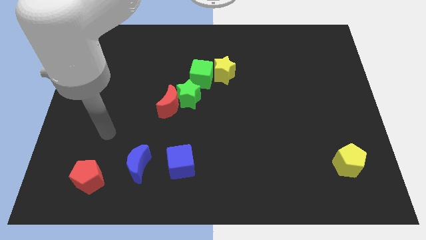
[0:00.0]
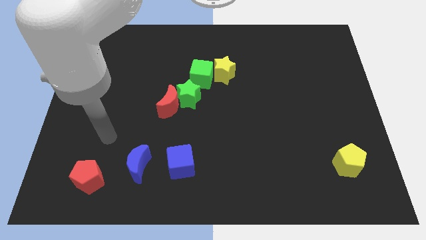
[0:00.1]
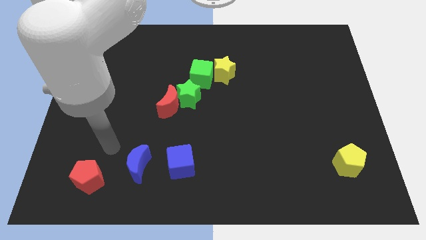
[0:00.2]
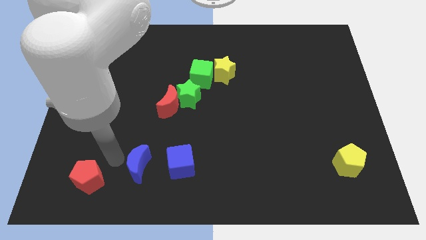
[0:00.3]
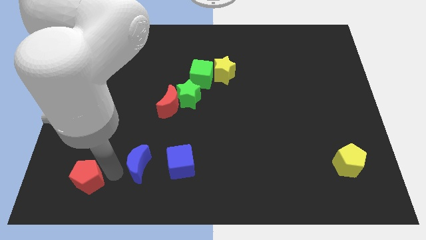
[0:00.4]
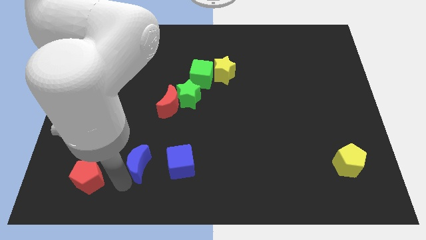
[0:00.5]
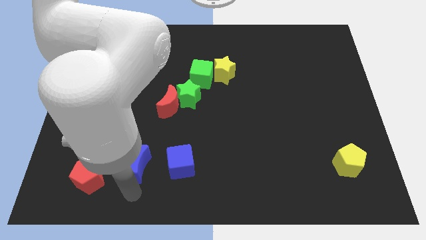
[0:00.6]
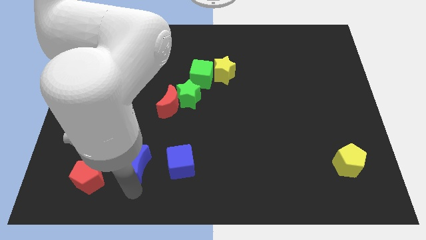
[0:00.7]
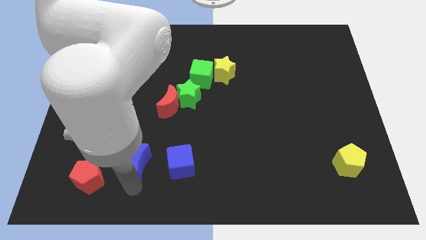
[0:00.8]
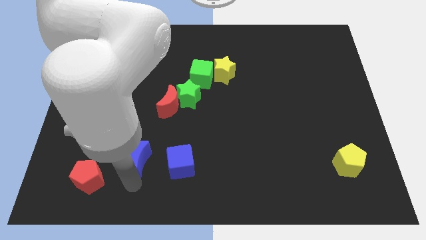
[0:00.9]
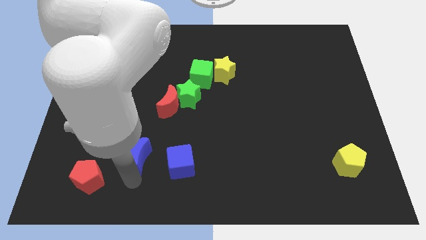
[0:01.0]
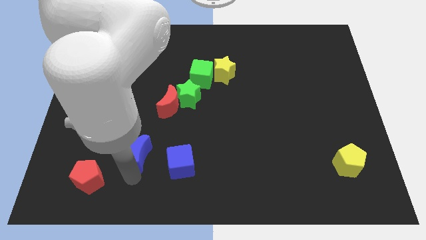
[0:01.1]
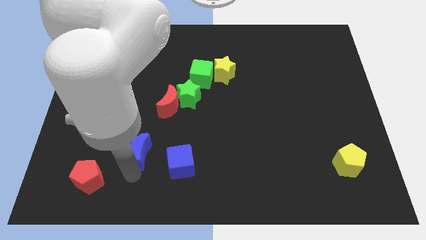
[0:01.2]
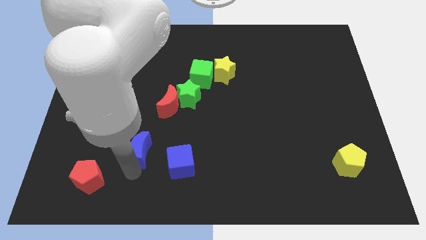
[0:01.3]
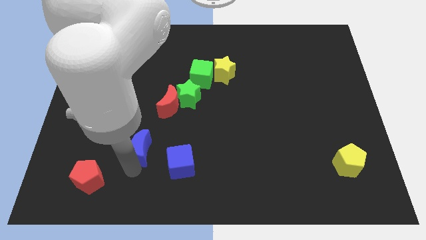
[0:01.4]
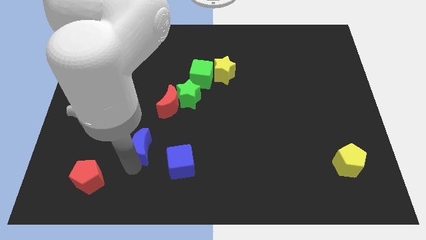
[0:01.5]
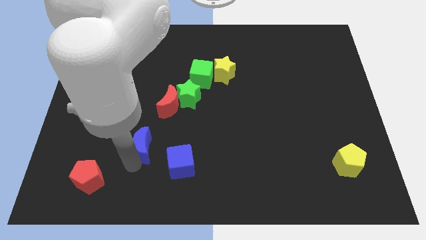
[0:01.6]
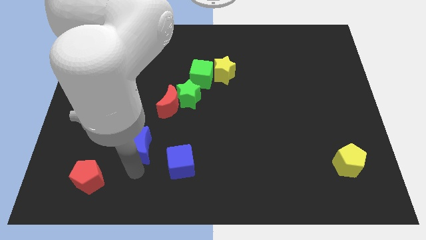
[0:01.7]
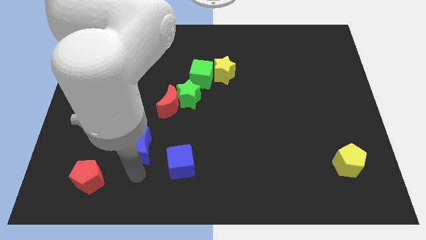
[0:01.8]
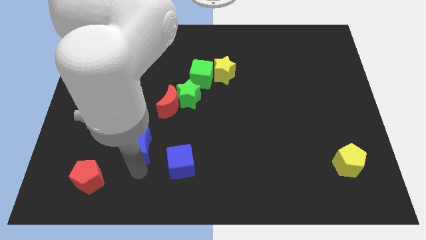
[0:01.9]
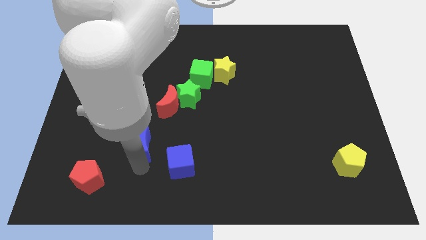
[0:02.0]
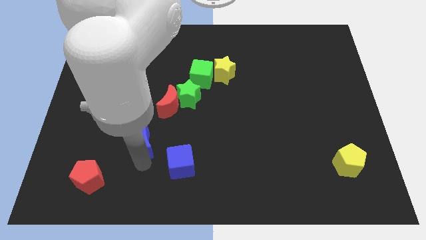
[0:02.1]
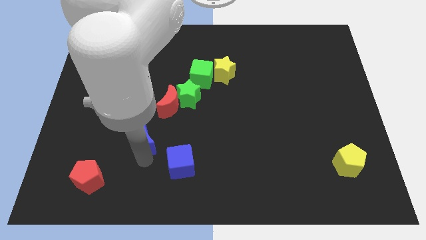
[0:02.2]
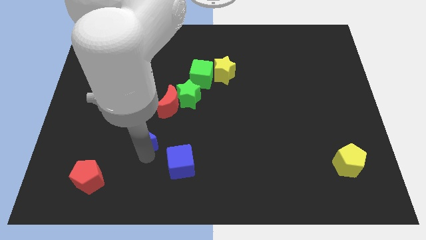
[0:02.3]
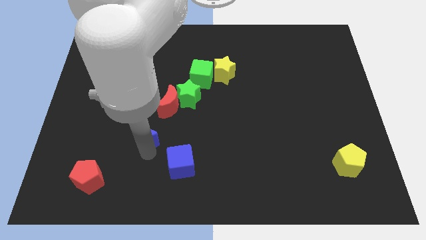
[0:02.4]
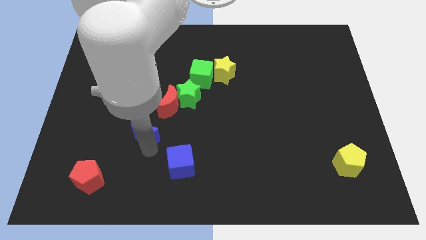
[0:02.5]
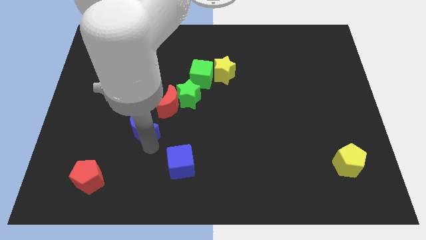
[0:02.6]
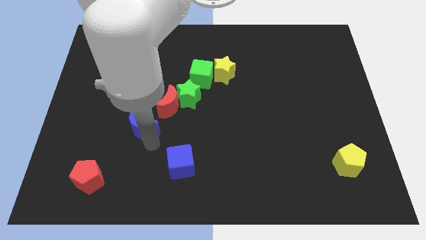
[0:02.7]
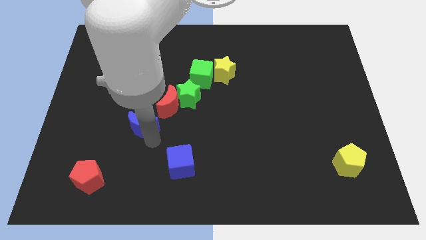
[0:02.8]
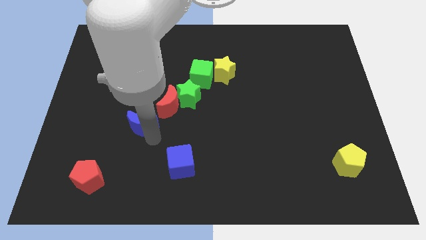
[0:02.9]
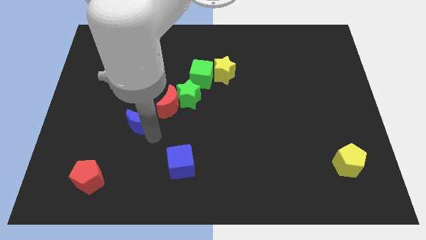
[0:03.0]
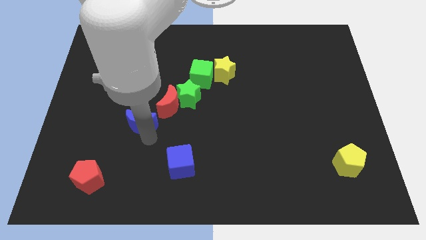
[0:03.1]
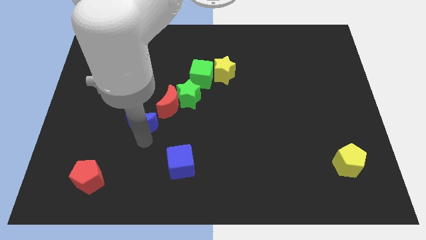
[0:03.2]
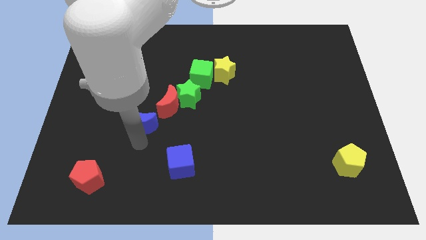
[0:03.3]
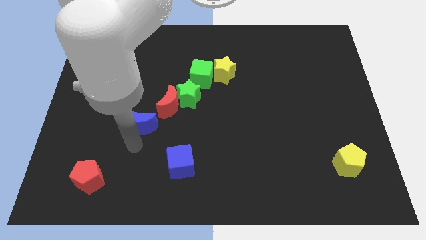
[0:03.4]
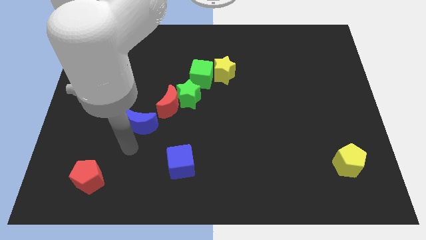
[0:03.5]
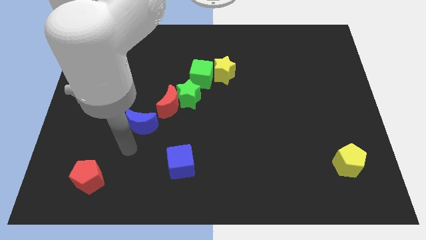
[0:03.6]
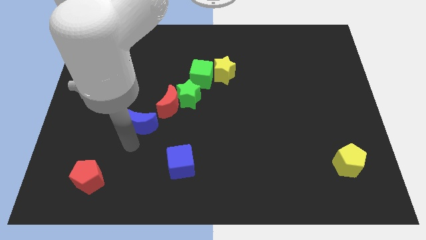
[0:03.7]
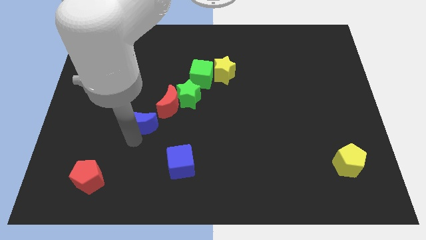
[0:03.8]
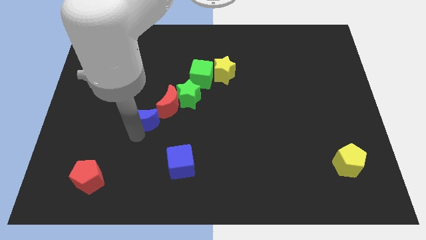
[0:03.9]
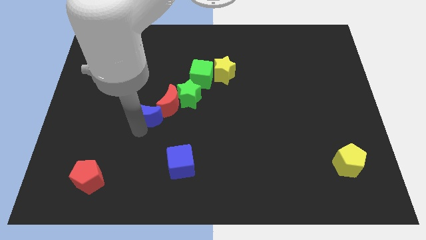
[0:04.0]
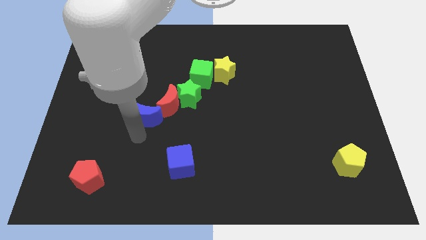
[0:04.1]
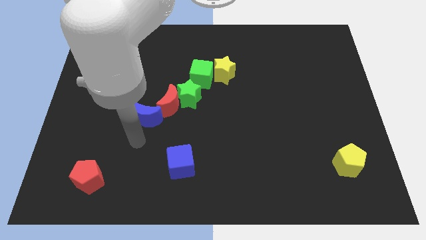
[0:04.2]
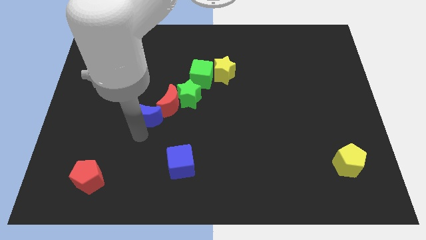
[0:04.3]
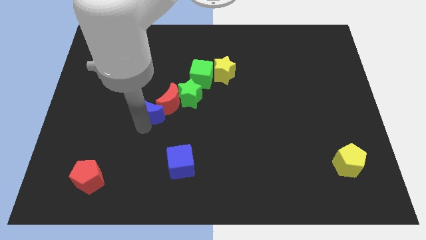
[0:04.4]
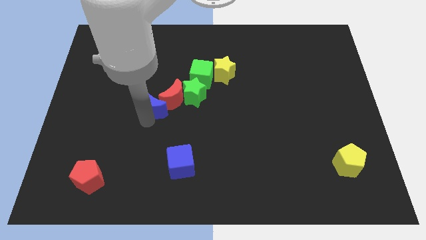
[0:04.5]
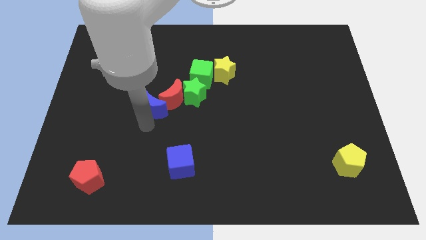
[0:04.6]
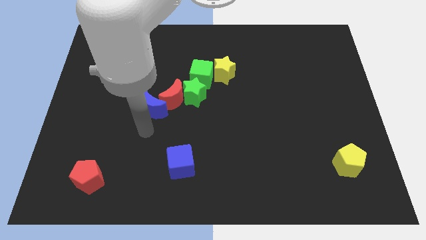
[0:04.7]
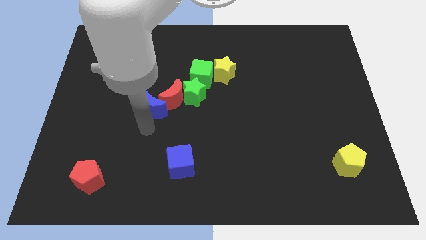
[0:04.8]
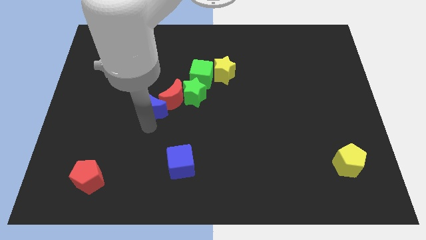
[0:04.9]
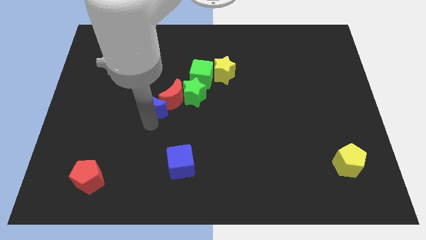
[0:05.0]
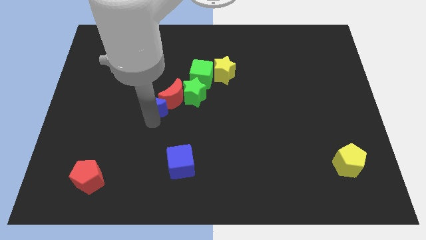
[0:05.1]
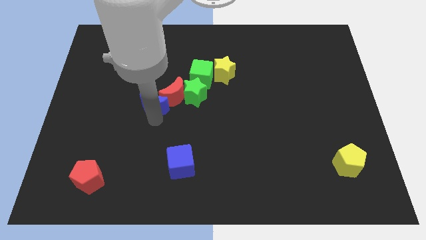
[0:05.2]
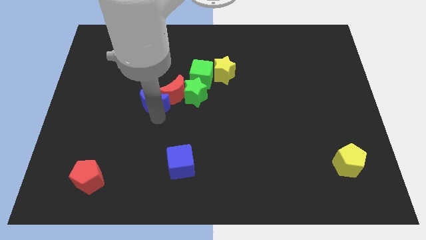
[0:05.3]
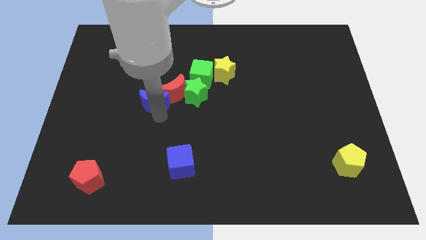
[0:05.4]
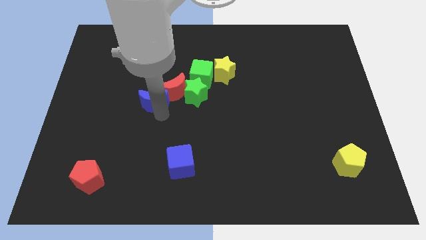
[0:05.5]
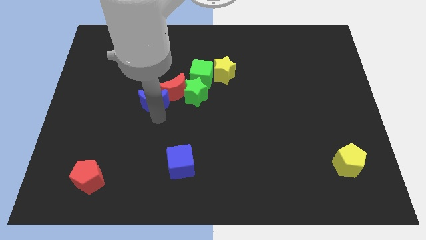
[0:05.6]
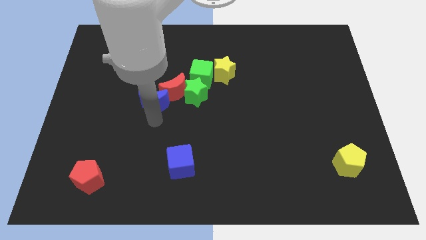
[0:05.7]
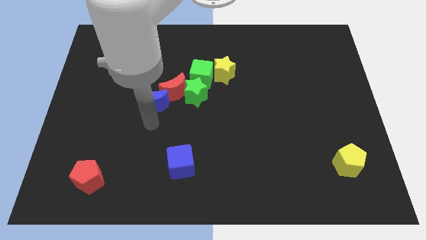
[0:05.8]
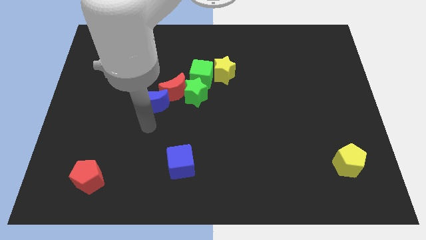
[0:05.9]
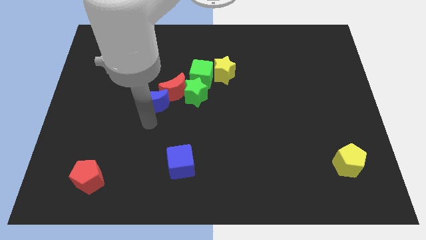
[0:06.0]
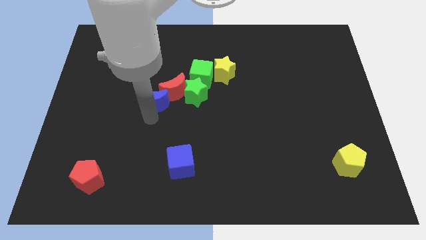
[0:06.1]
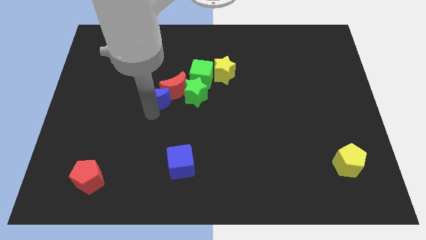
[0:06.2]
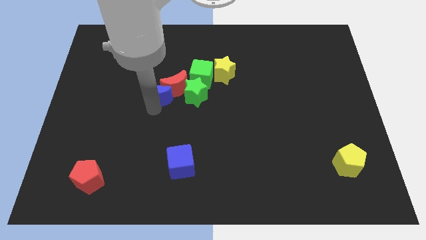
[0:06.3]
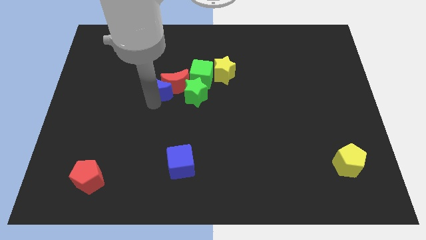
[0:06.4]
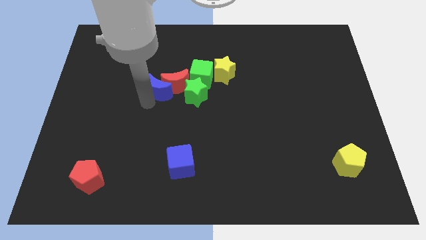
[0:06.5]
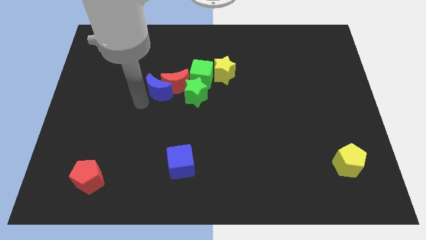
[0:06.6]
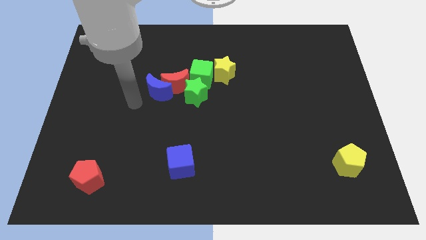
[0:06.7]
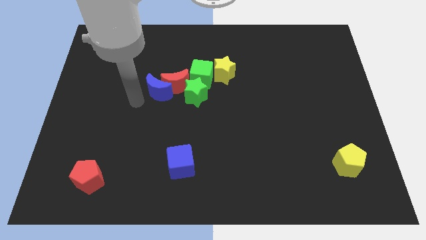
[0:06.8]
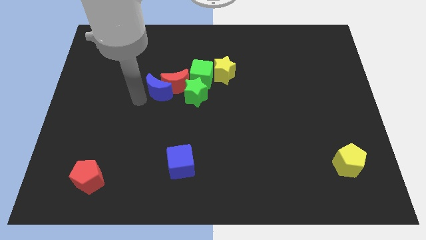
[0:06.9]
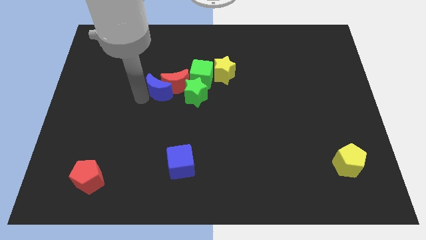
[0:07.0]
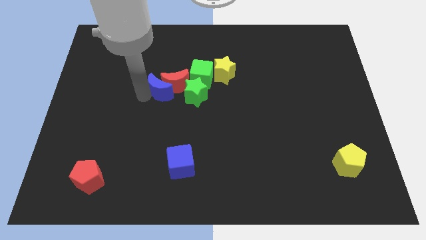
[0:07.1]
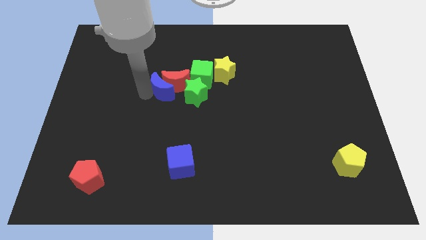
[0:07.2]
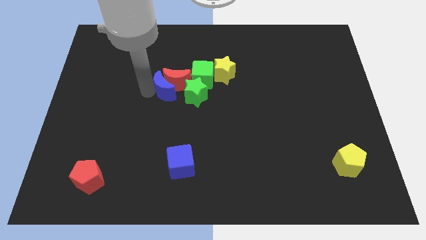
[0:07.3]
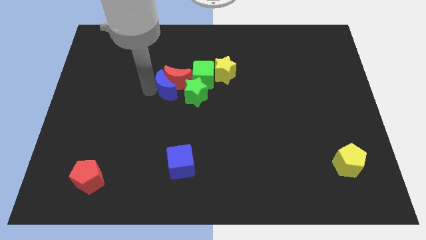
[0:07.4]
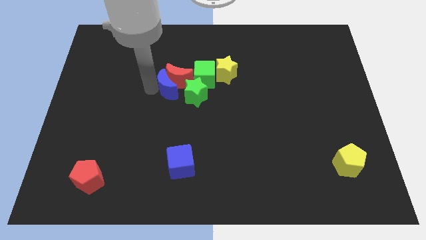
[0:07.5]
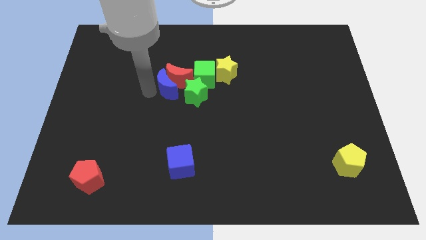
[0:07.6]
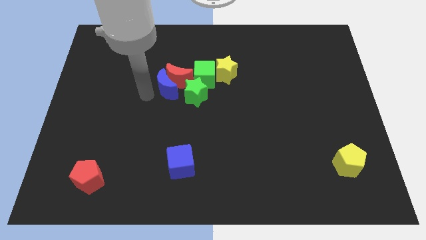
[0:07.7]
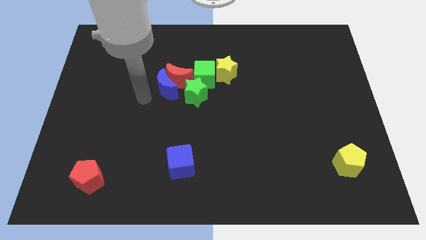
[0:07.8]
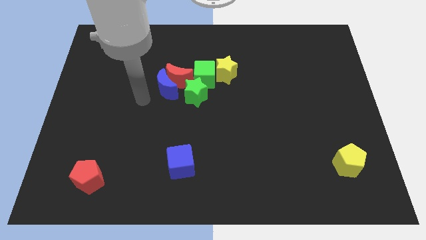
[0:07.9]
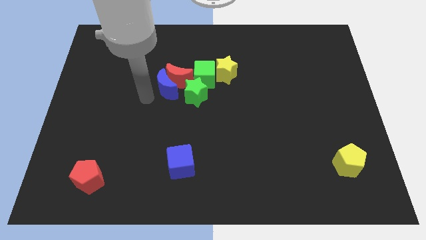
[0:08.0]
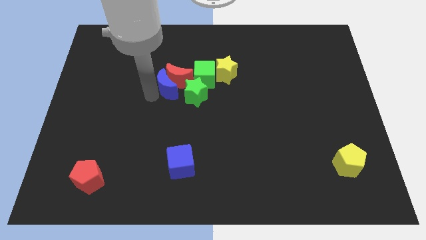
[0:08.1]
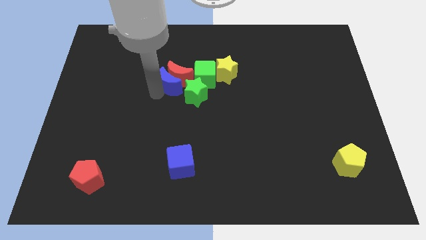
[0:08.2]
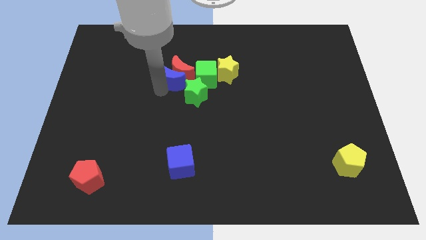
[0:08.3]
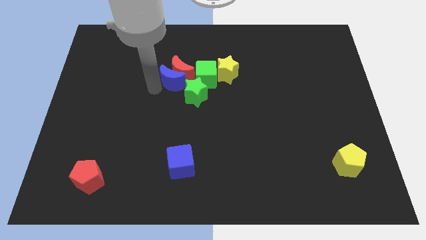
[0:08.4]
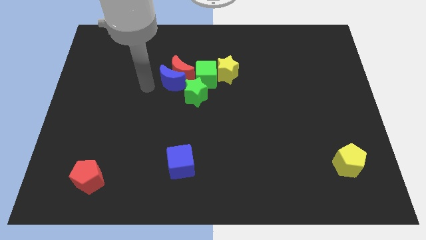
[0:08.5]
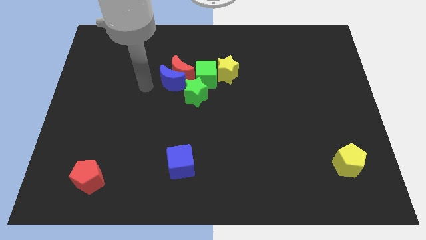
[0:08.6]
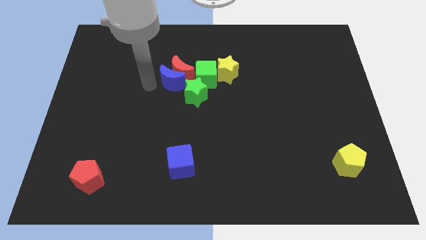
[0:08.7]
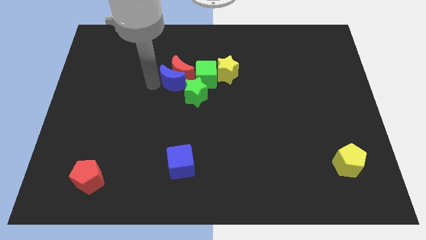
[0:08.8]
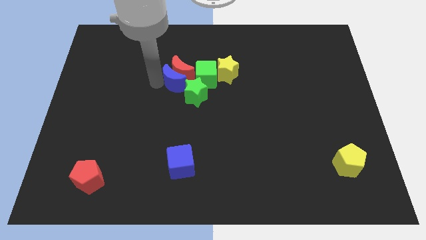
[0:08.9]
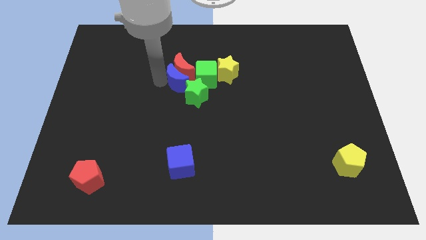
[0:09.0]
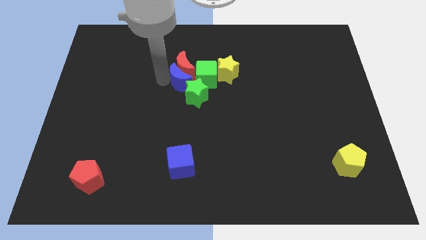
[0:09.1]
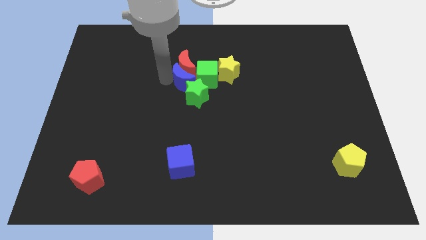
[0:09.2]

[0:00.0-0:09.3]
slide the blue moon next to the green cube
